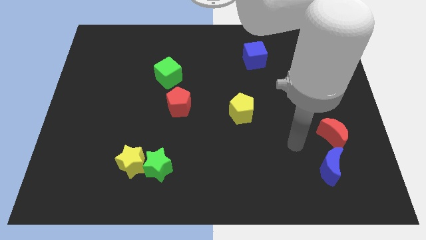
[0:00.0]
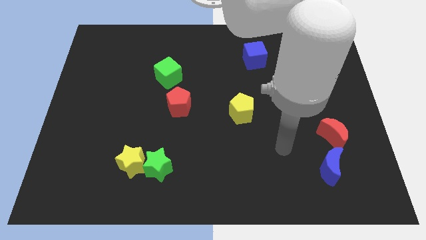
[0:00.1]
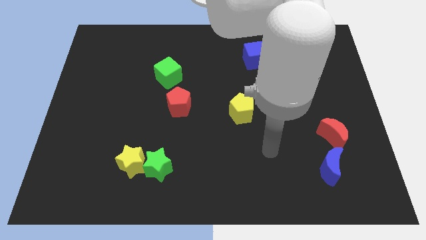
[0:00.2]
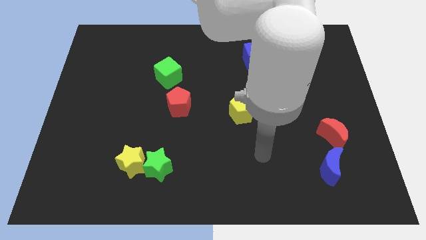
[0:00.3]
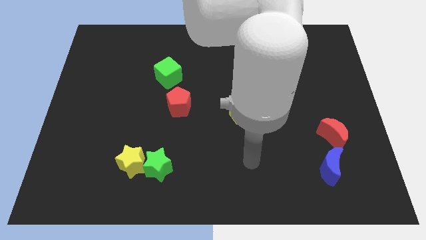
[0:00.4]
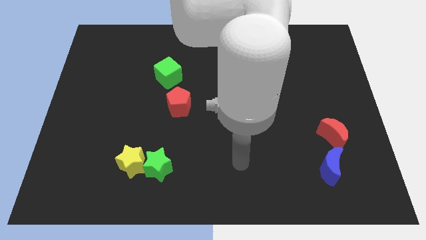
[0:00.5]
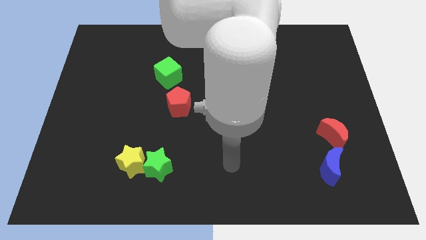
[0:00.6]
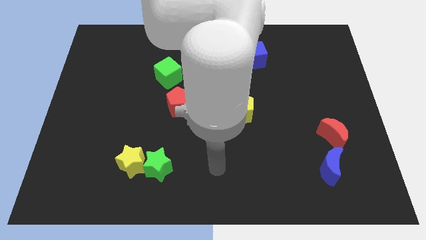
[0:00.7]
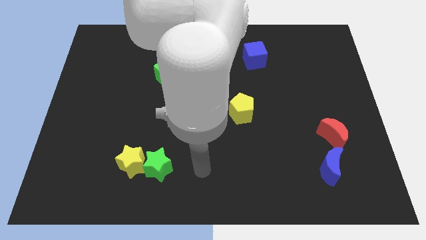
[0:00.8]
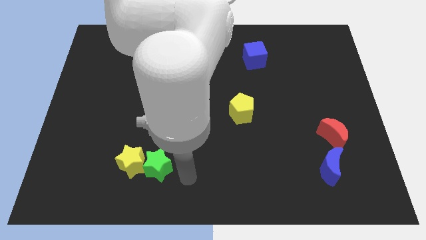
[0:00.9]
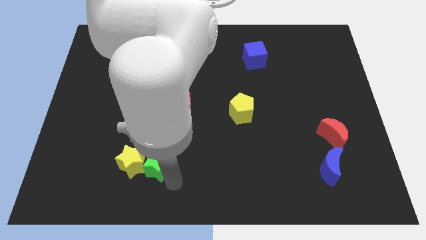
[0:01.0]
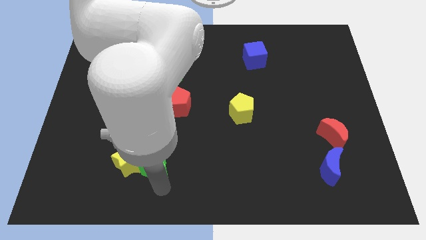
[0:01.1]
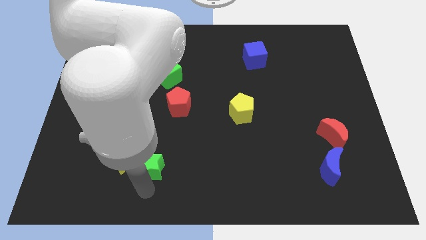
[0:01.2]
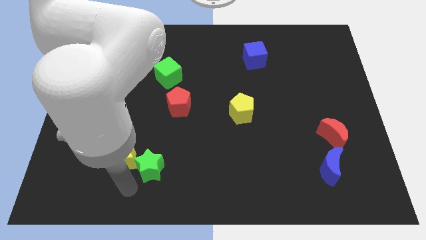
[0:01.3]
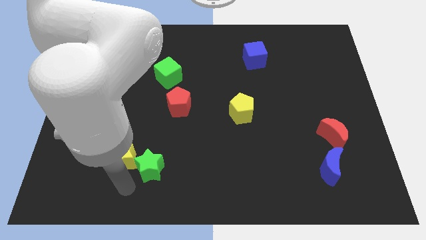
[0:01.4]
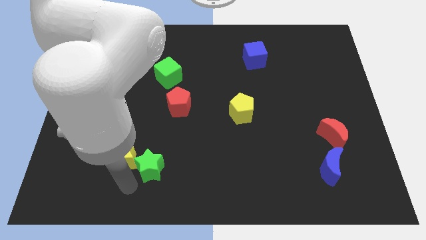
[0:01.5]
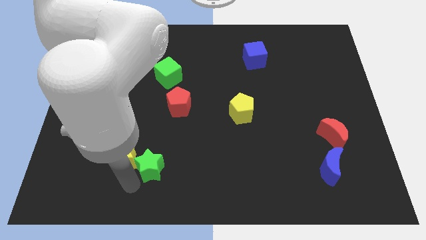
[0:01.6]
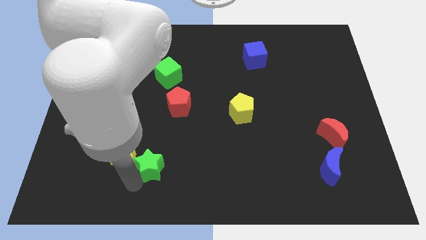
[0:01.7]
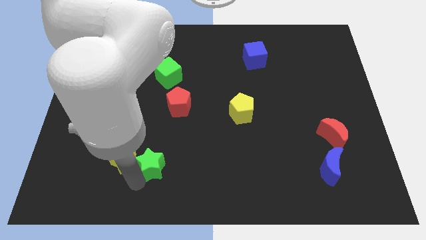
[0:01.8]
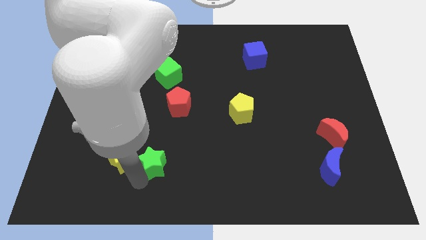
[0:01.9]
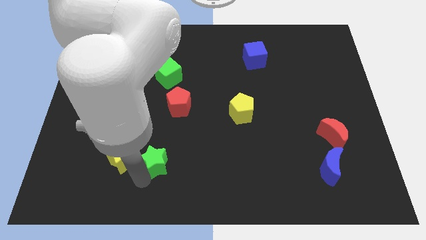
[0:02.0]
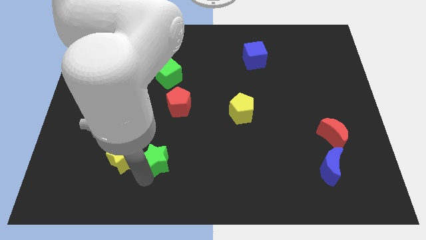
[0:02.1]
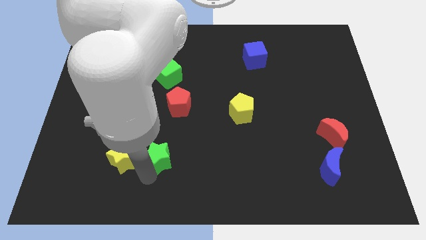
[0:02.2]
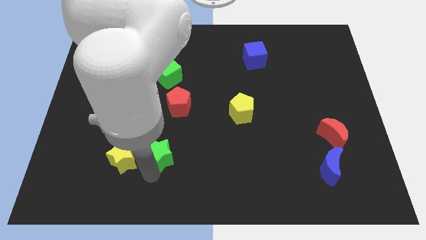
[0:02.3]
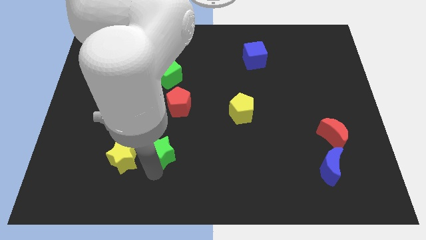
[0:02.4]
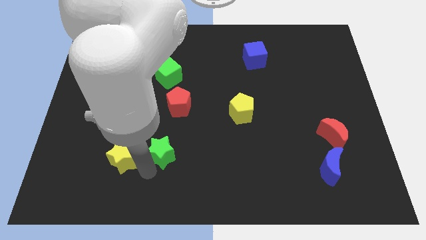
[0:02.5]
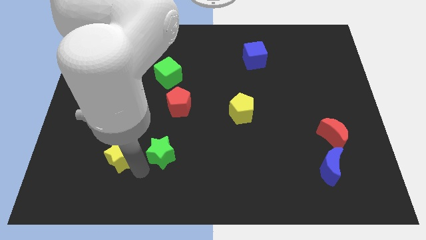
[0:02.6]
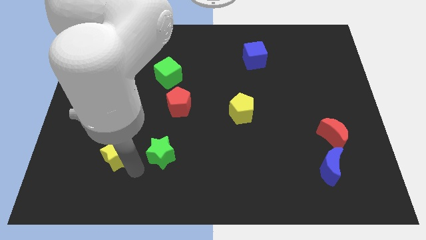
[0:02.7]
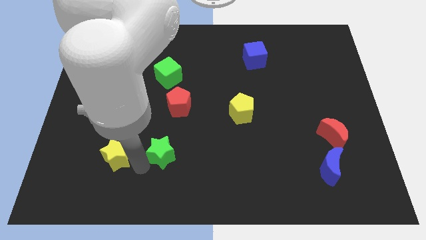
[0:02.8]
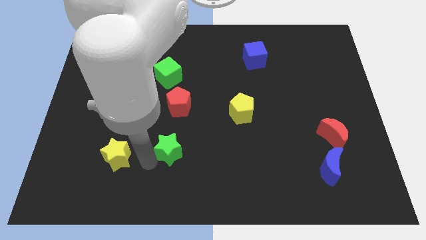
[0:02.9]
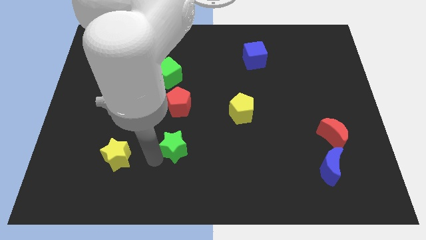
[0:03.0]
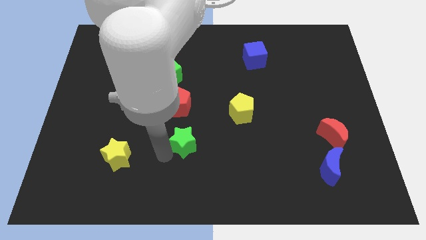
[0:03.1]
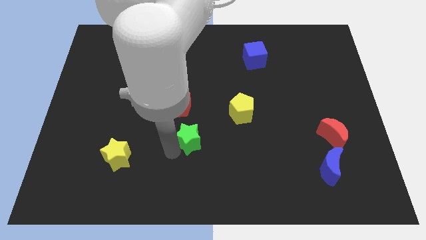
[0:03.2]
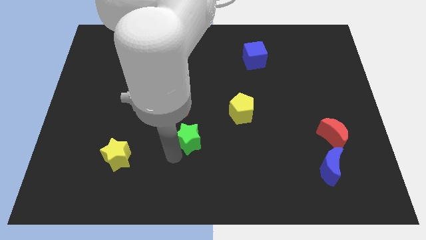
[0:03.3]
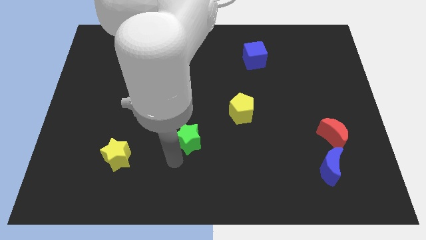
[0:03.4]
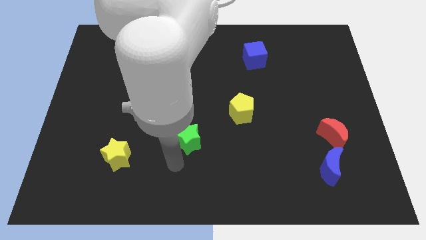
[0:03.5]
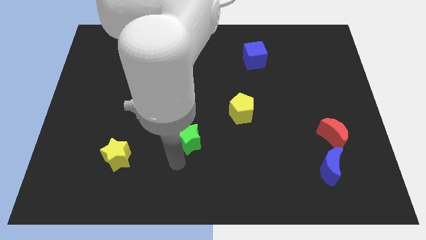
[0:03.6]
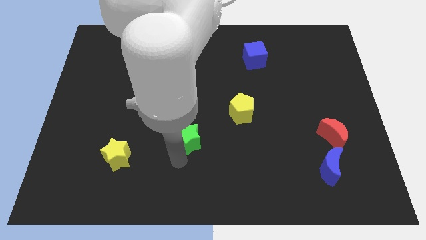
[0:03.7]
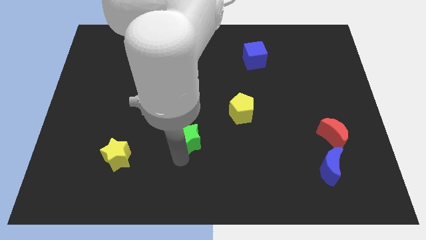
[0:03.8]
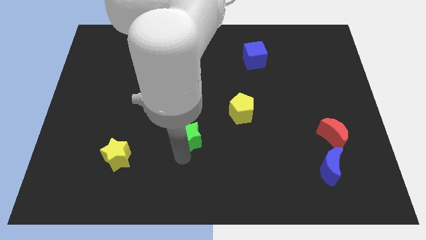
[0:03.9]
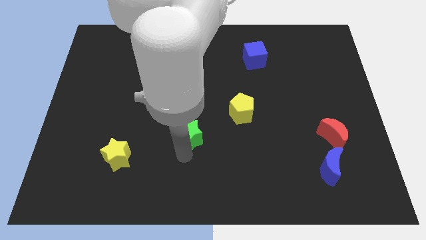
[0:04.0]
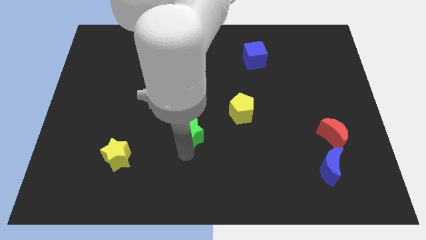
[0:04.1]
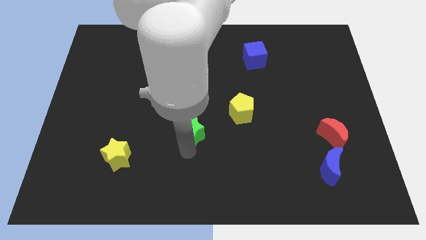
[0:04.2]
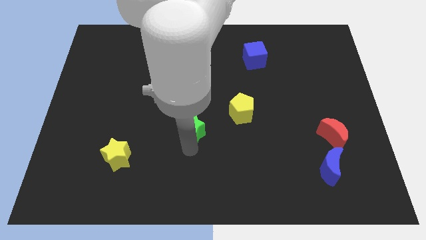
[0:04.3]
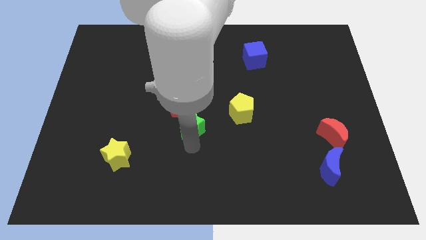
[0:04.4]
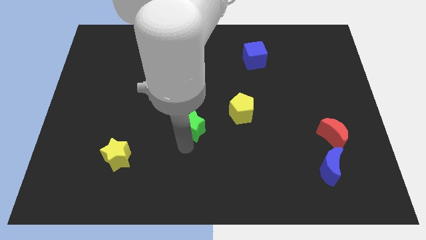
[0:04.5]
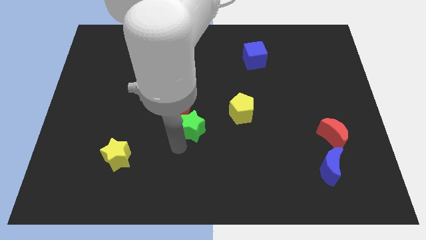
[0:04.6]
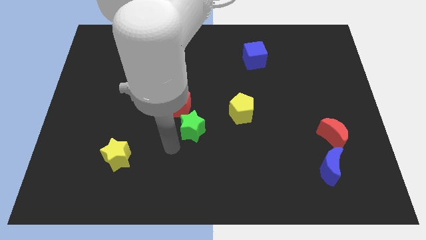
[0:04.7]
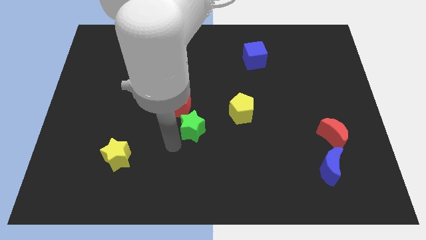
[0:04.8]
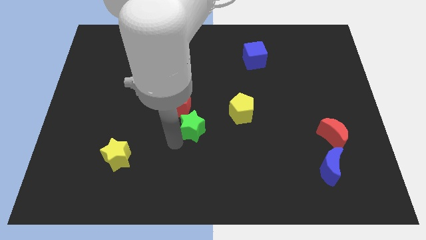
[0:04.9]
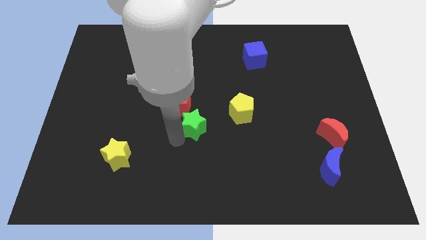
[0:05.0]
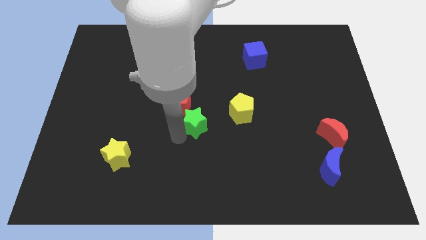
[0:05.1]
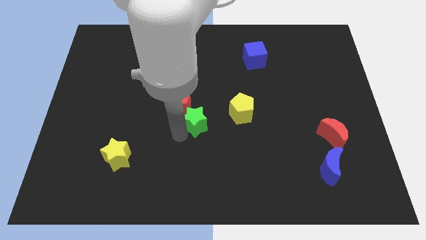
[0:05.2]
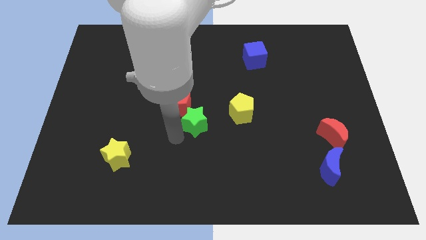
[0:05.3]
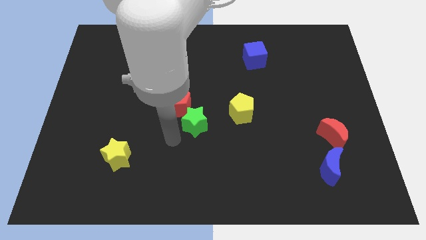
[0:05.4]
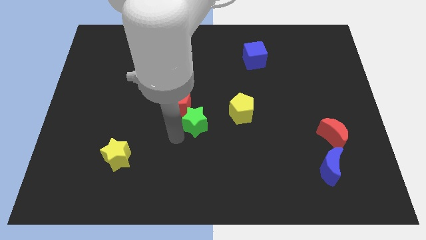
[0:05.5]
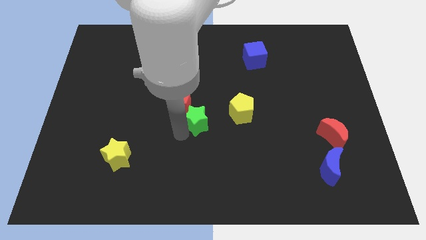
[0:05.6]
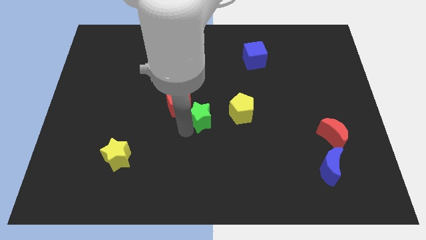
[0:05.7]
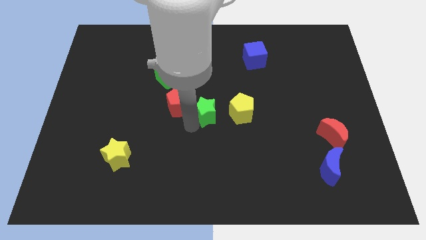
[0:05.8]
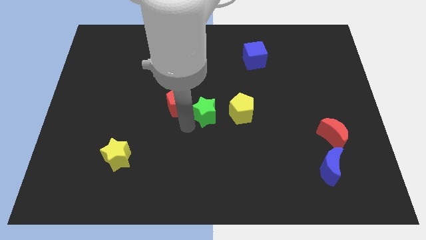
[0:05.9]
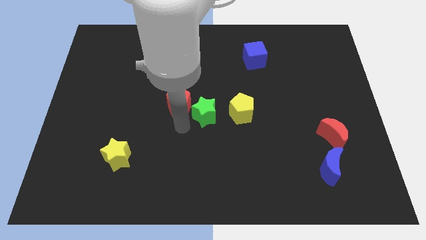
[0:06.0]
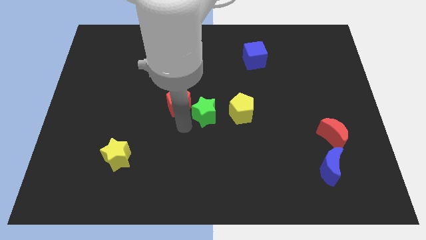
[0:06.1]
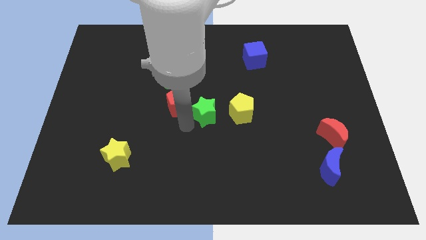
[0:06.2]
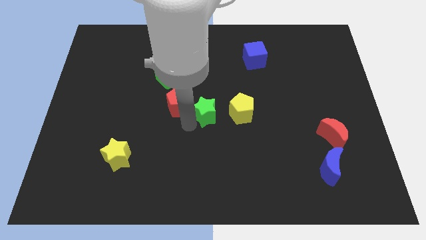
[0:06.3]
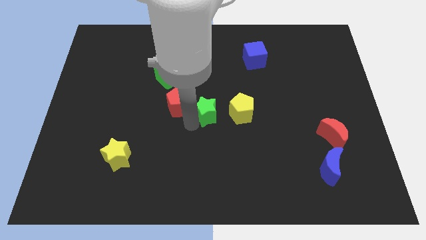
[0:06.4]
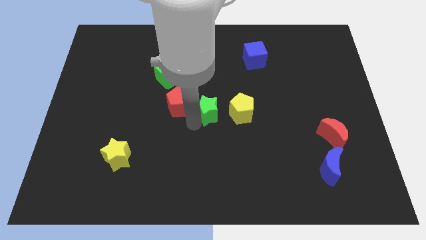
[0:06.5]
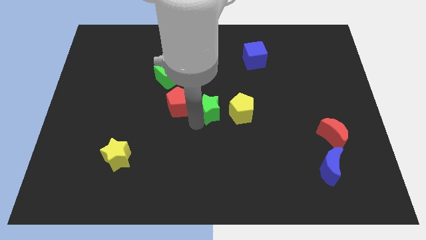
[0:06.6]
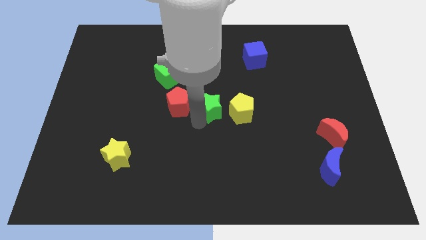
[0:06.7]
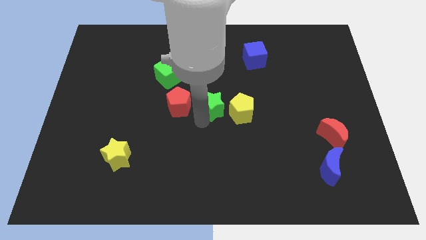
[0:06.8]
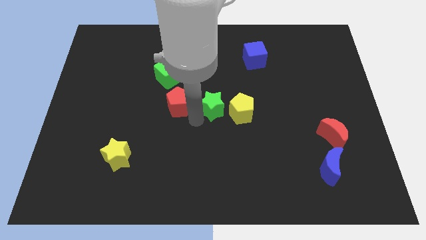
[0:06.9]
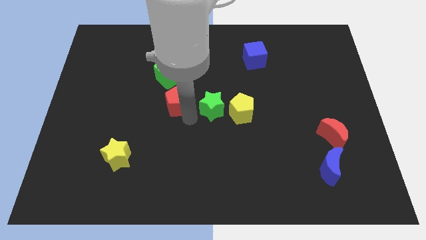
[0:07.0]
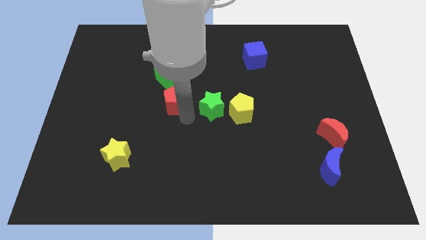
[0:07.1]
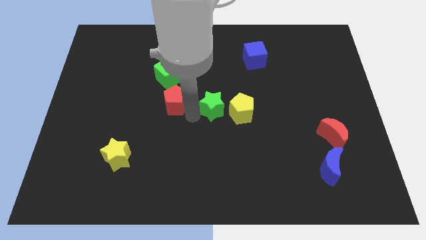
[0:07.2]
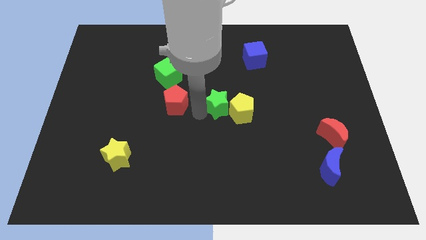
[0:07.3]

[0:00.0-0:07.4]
slide the green star up and then to the right

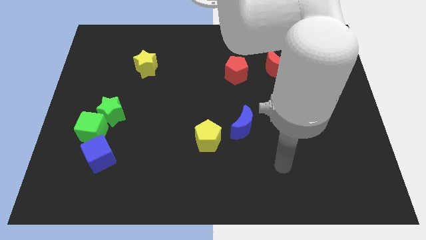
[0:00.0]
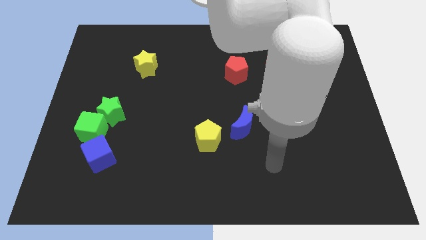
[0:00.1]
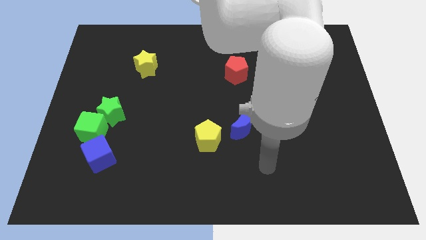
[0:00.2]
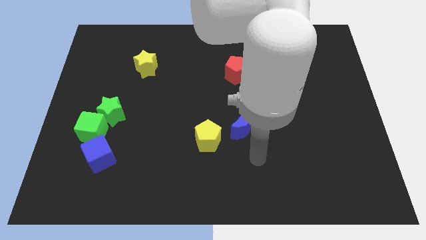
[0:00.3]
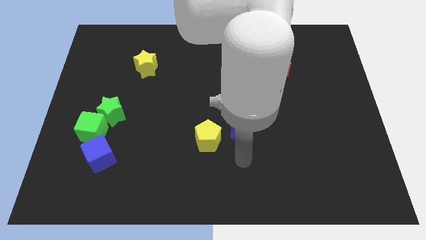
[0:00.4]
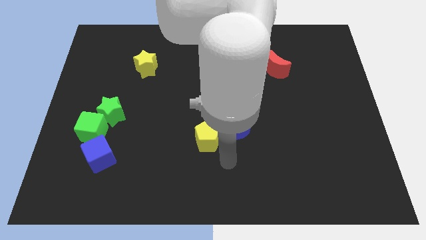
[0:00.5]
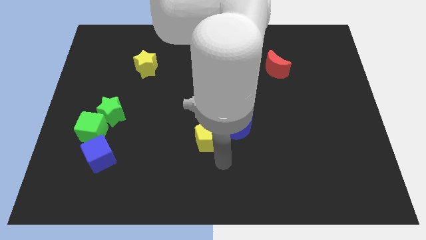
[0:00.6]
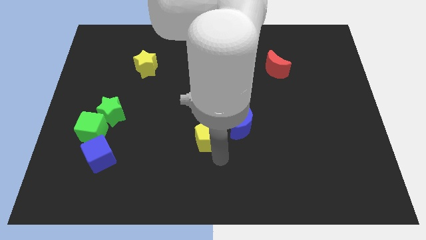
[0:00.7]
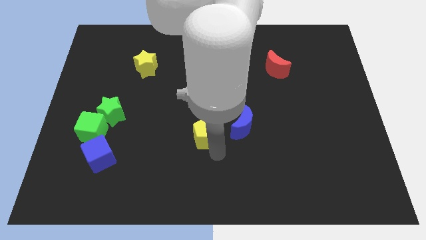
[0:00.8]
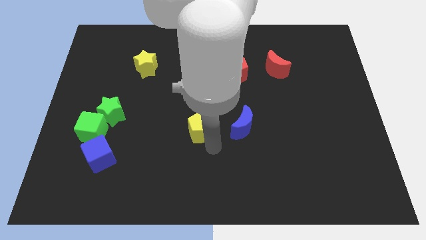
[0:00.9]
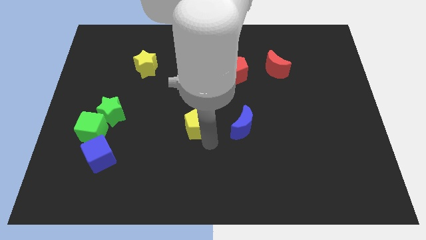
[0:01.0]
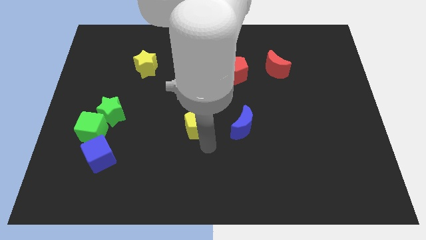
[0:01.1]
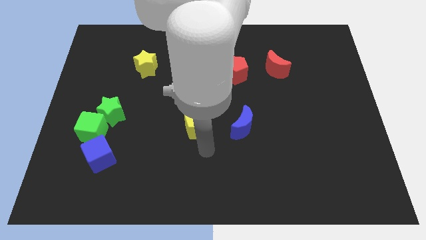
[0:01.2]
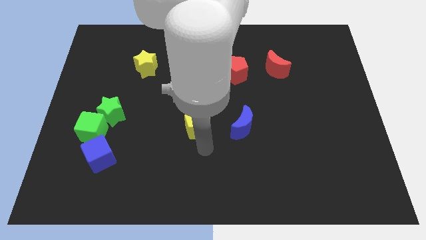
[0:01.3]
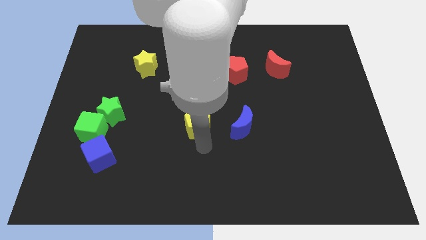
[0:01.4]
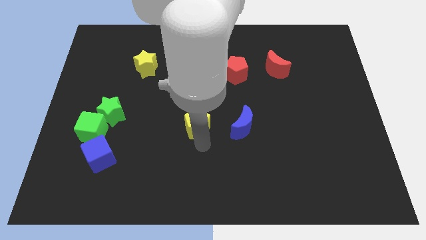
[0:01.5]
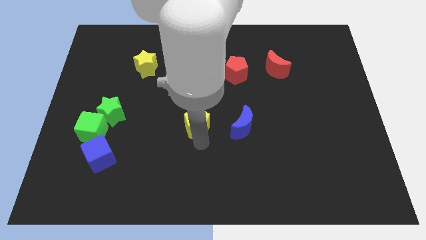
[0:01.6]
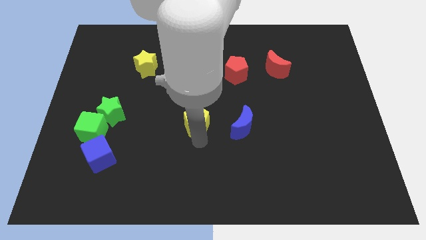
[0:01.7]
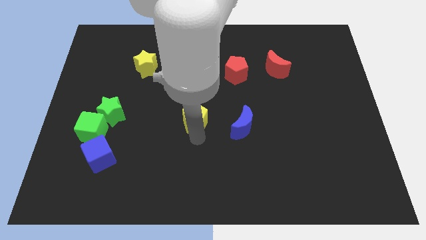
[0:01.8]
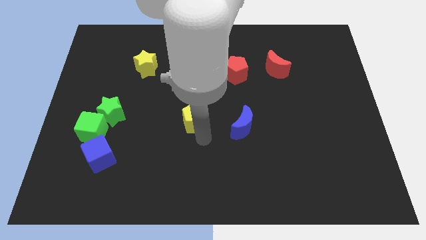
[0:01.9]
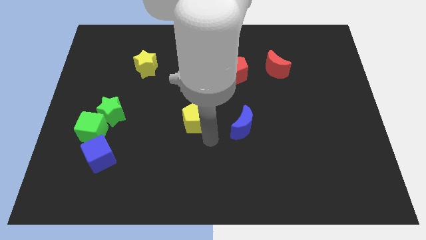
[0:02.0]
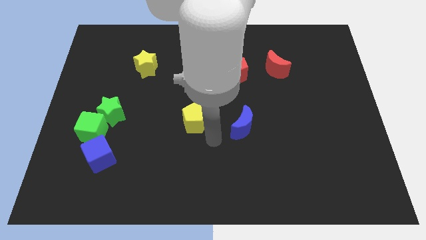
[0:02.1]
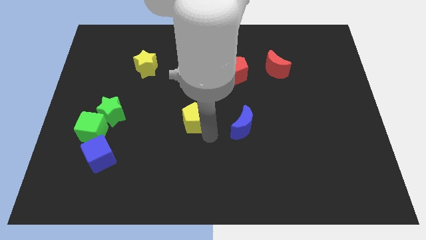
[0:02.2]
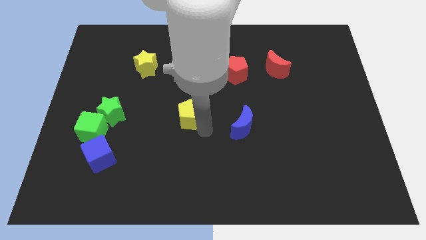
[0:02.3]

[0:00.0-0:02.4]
slightly move the yellow pentagon up and to the left diagonally
